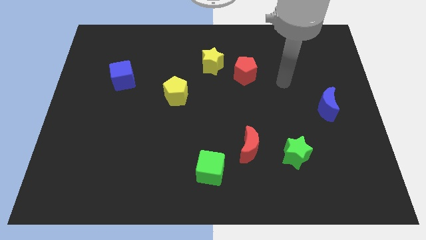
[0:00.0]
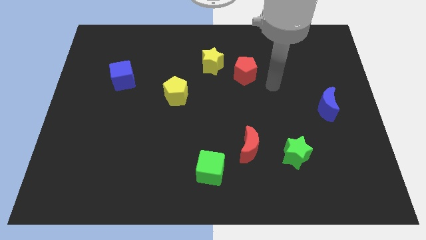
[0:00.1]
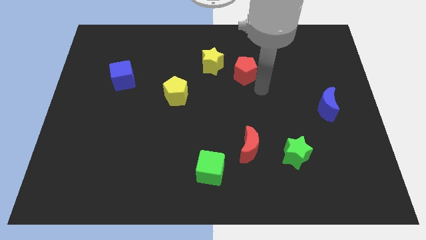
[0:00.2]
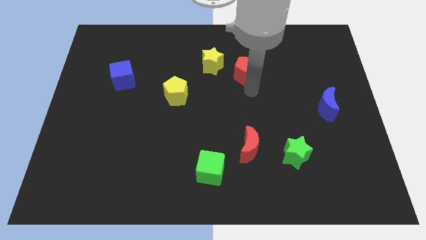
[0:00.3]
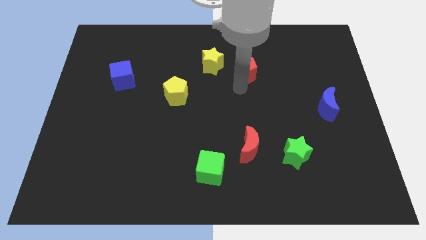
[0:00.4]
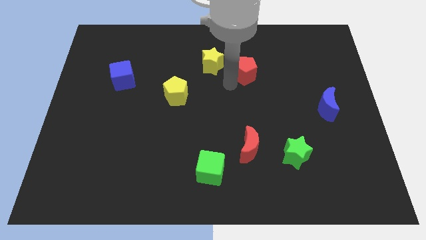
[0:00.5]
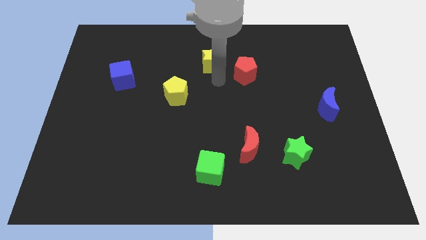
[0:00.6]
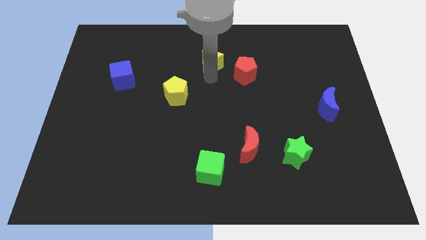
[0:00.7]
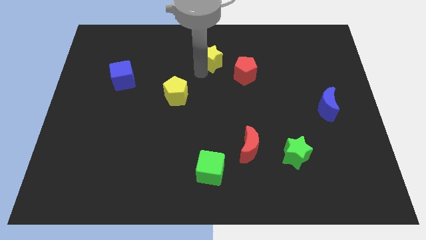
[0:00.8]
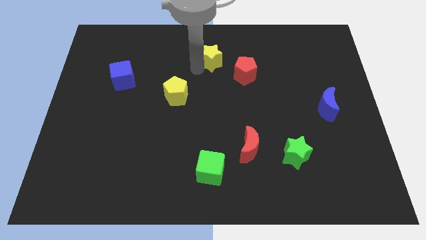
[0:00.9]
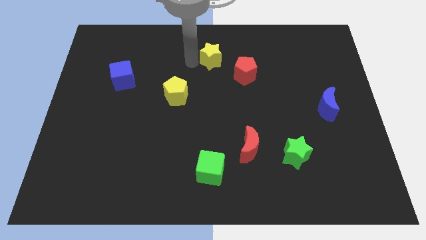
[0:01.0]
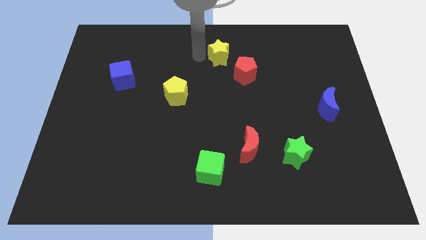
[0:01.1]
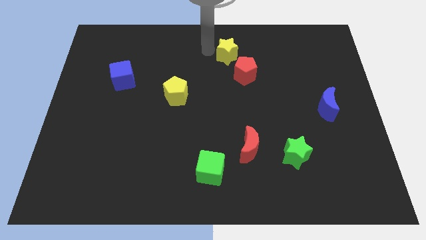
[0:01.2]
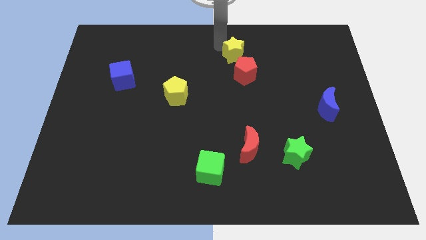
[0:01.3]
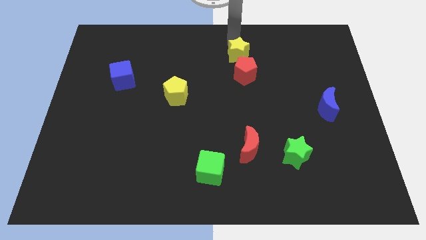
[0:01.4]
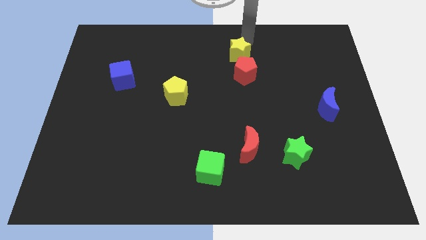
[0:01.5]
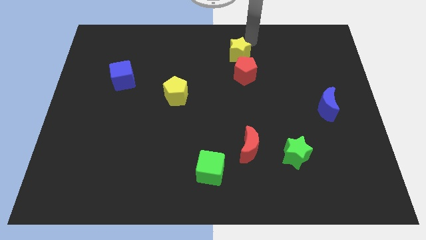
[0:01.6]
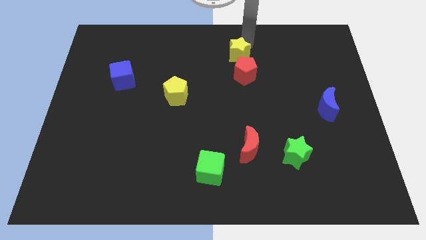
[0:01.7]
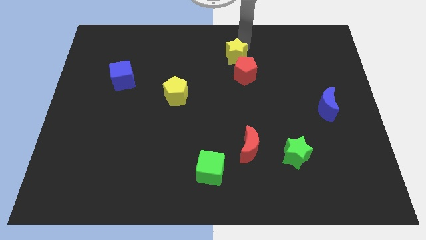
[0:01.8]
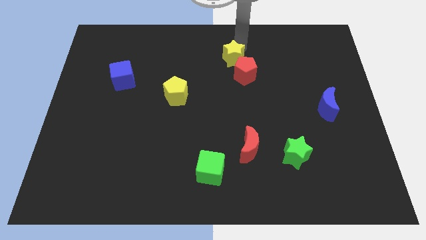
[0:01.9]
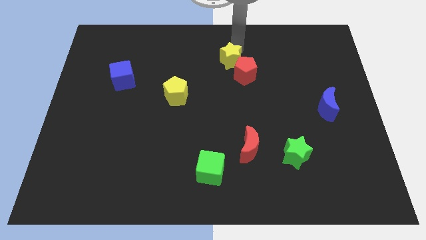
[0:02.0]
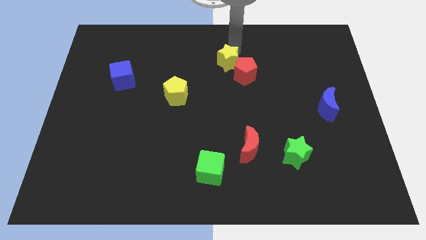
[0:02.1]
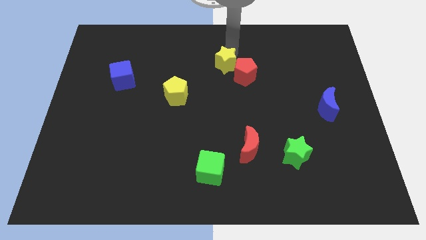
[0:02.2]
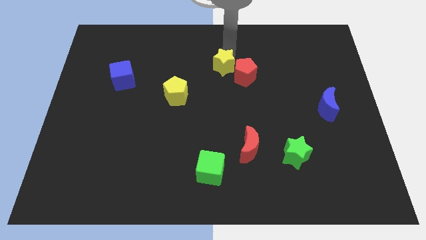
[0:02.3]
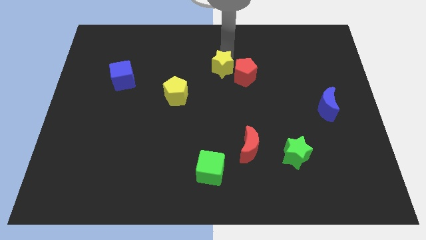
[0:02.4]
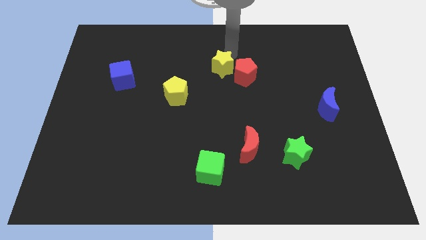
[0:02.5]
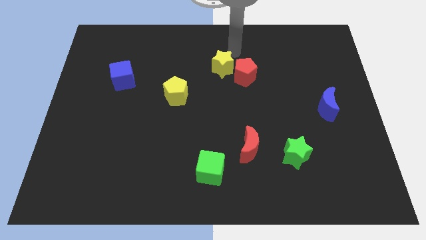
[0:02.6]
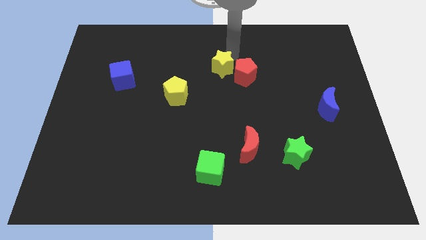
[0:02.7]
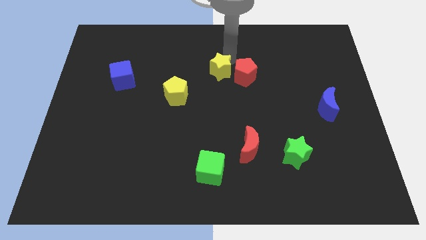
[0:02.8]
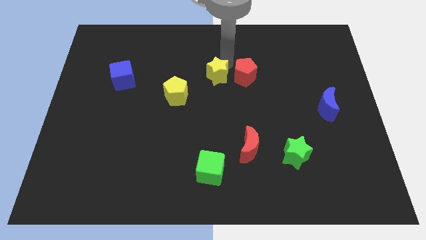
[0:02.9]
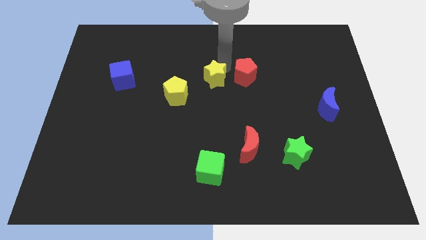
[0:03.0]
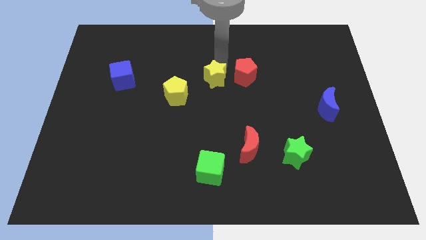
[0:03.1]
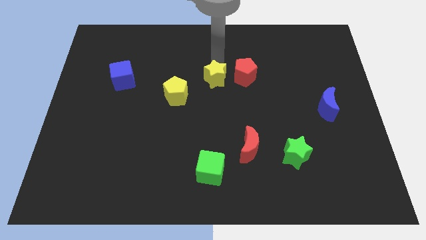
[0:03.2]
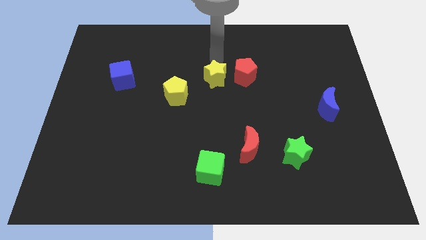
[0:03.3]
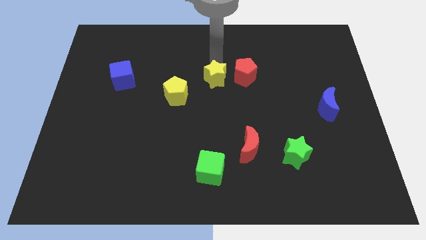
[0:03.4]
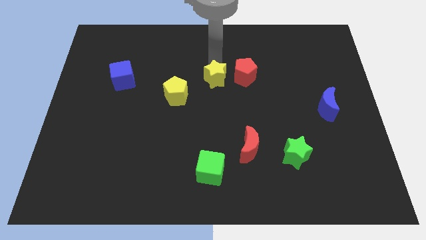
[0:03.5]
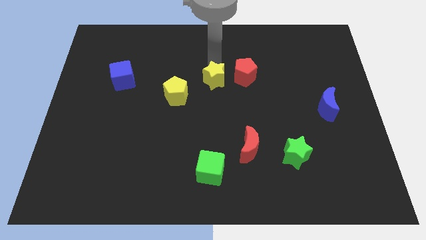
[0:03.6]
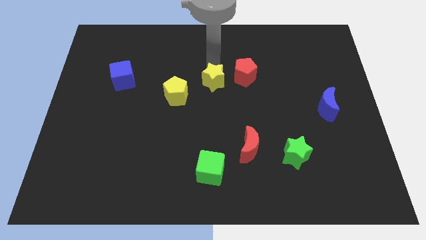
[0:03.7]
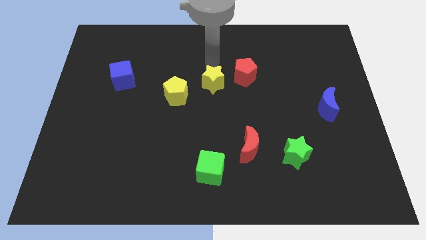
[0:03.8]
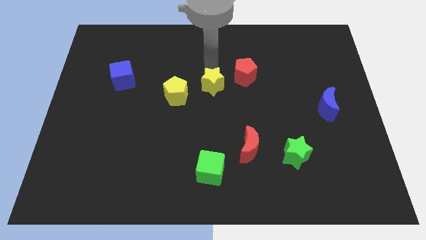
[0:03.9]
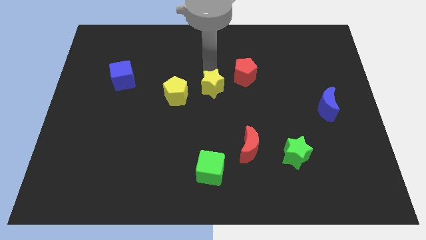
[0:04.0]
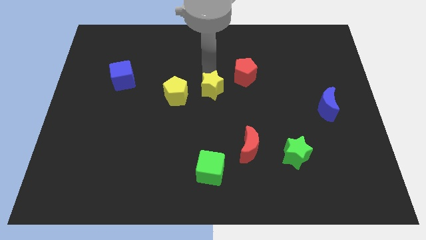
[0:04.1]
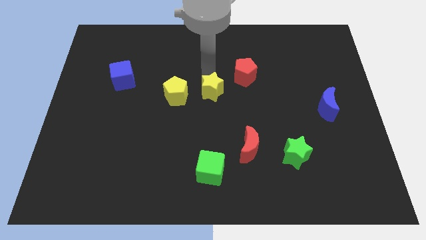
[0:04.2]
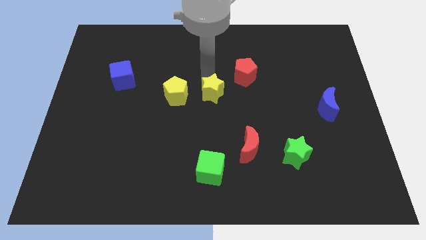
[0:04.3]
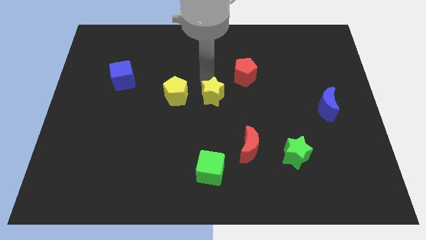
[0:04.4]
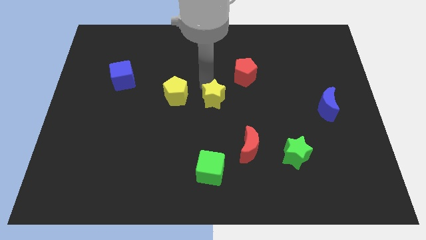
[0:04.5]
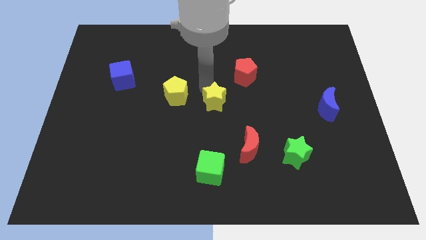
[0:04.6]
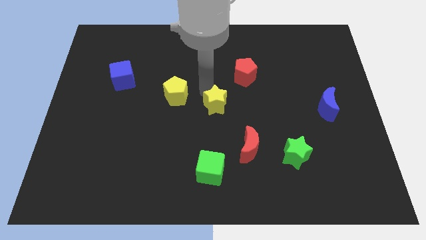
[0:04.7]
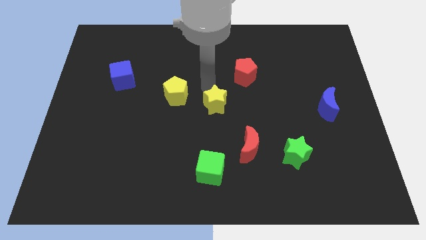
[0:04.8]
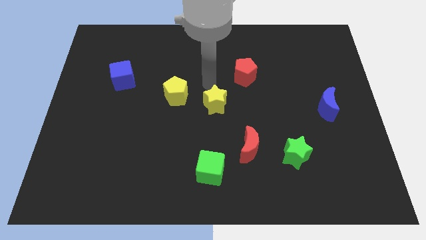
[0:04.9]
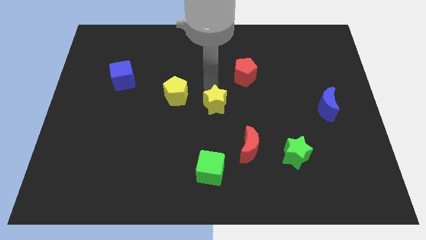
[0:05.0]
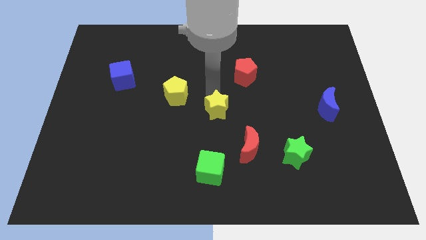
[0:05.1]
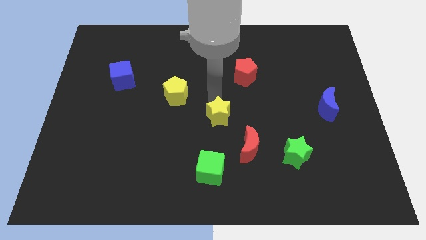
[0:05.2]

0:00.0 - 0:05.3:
push the yellow star diagonally up and to the left of the red moon

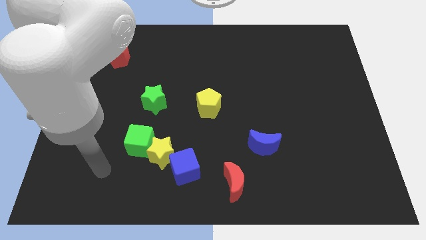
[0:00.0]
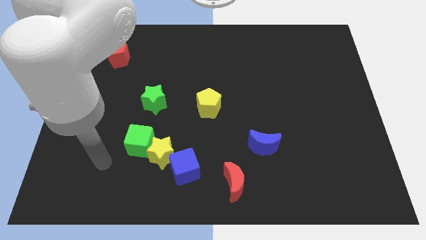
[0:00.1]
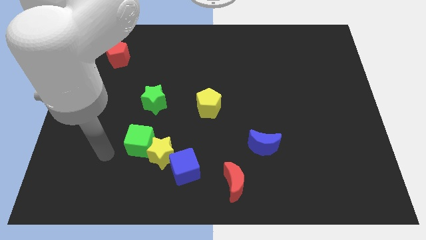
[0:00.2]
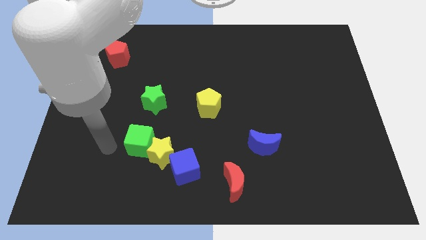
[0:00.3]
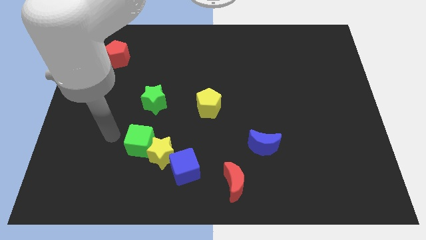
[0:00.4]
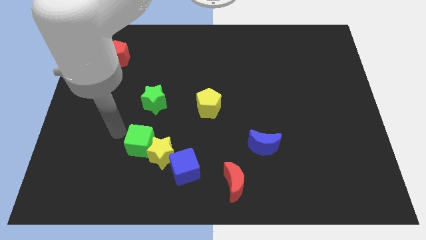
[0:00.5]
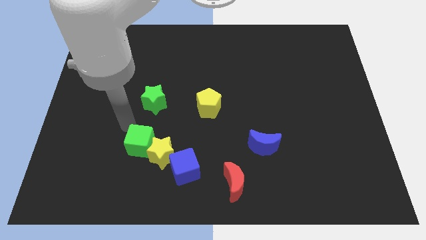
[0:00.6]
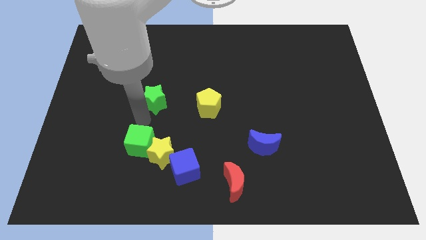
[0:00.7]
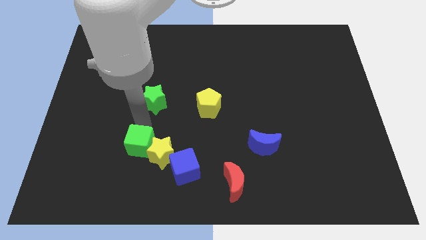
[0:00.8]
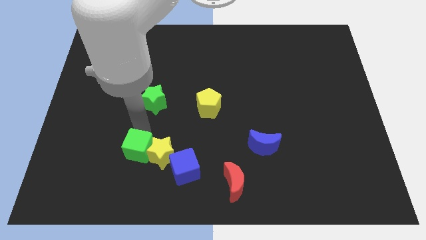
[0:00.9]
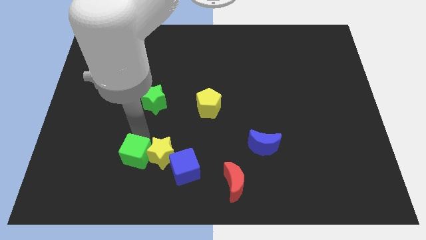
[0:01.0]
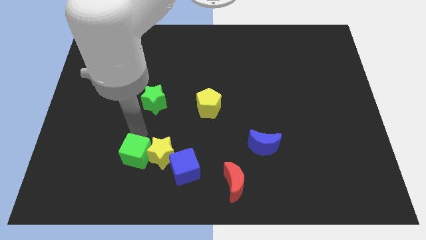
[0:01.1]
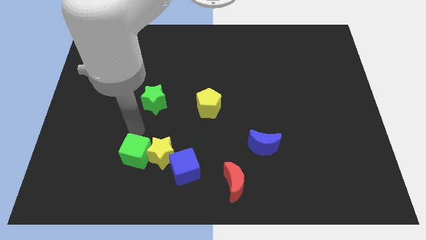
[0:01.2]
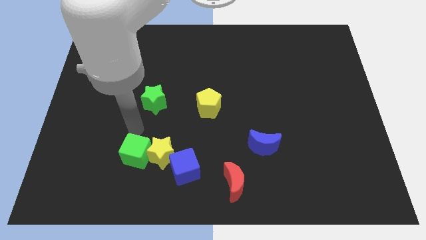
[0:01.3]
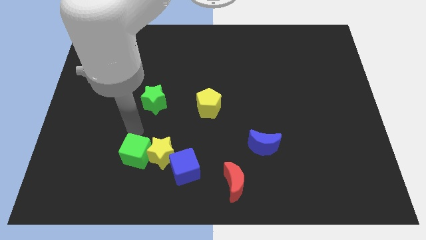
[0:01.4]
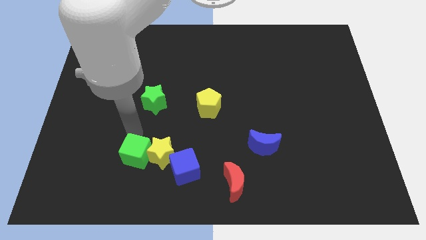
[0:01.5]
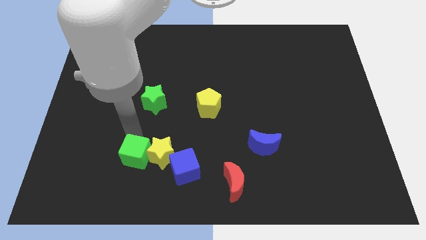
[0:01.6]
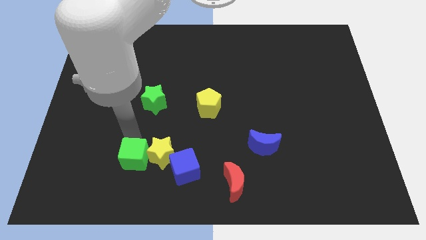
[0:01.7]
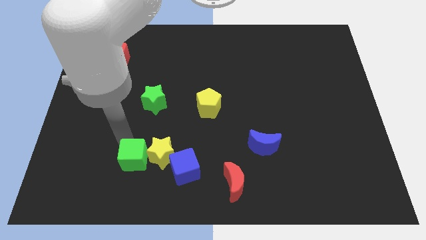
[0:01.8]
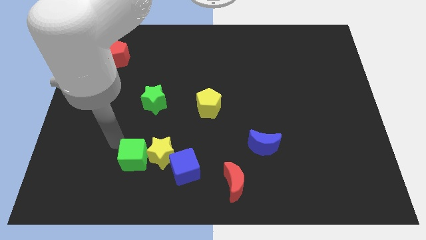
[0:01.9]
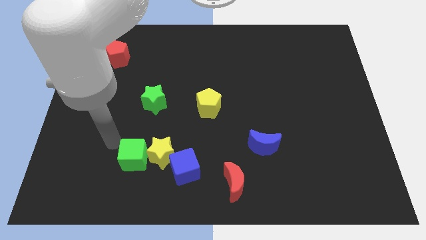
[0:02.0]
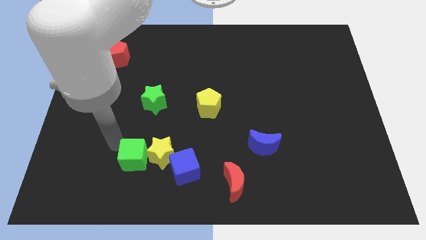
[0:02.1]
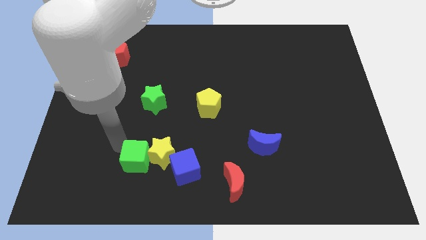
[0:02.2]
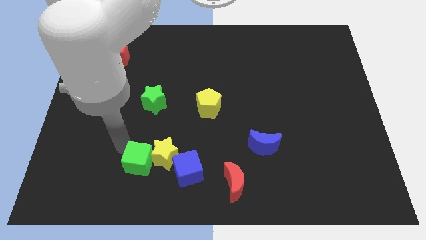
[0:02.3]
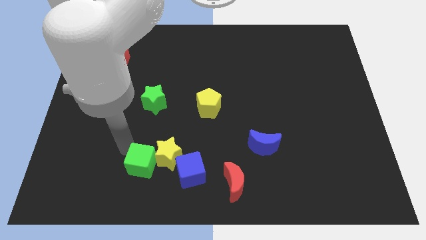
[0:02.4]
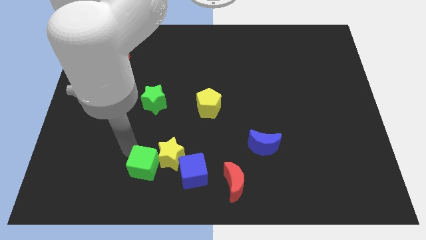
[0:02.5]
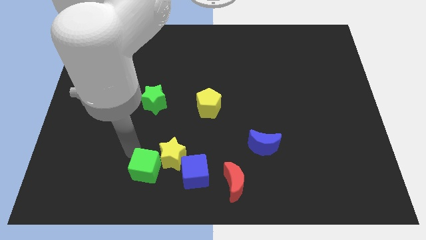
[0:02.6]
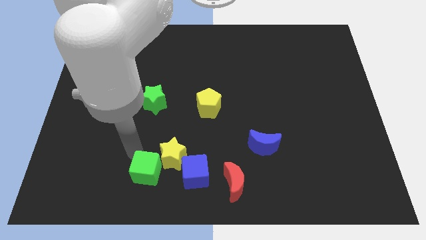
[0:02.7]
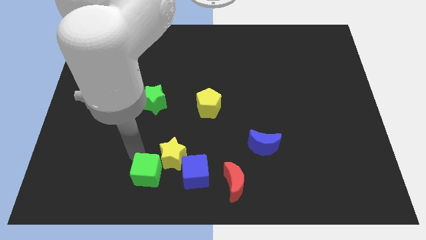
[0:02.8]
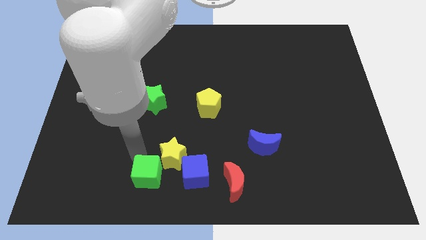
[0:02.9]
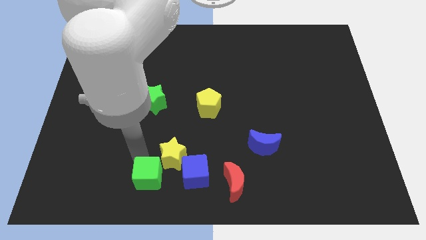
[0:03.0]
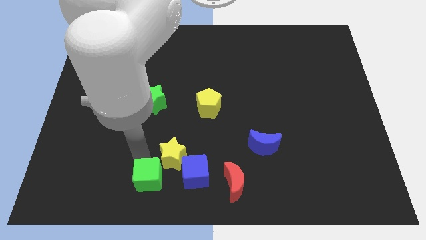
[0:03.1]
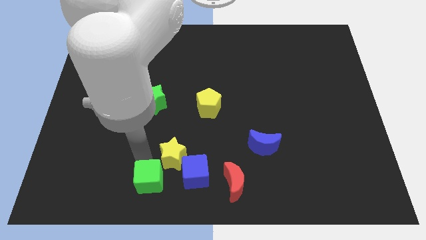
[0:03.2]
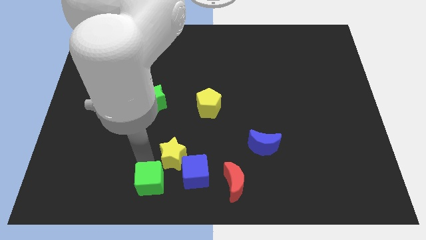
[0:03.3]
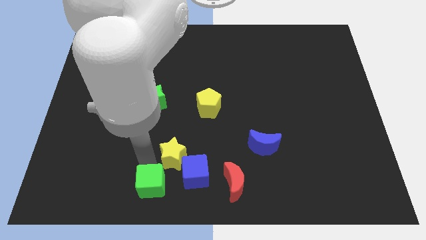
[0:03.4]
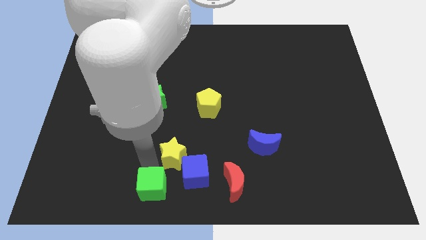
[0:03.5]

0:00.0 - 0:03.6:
put the green cube to the left of the red moon
